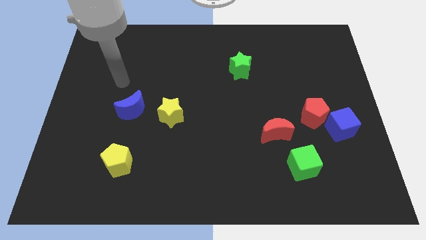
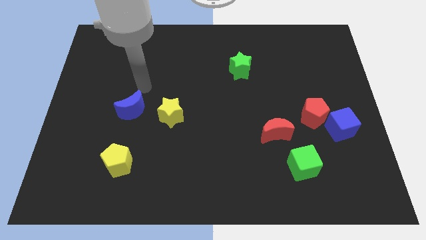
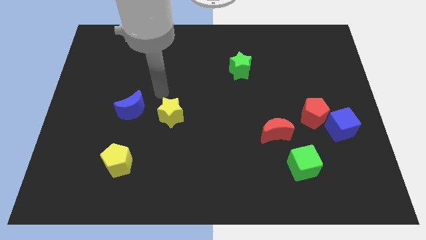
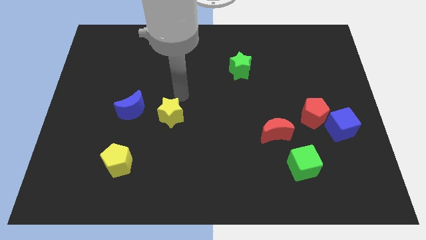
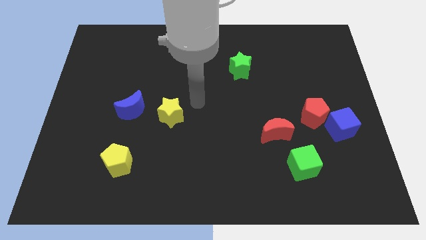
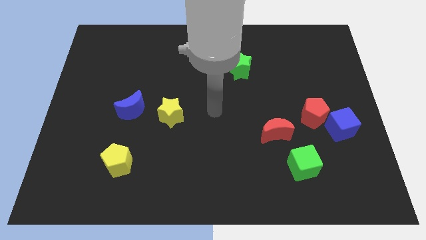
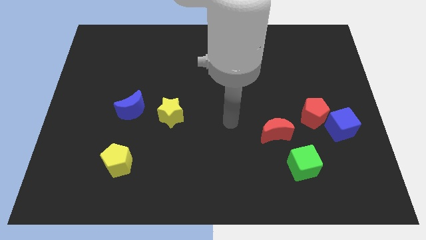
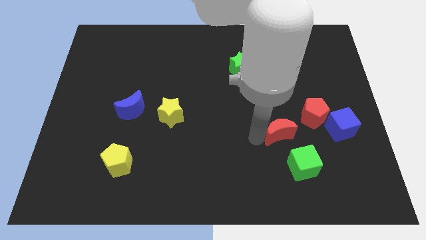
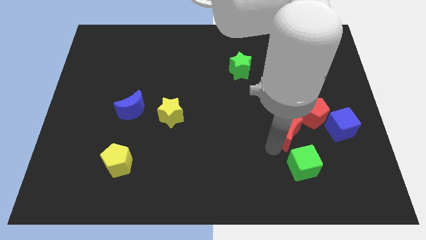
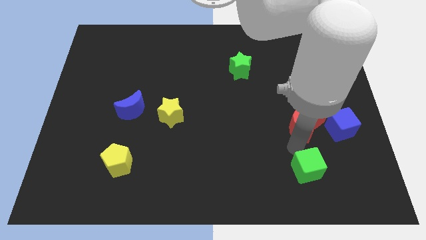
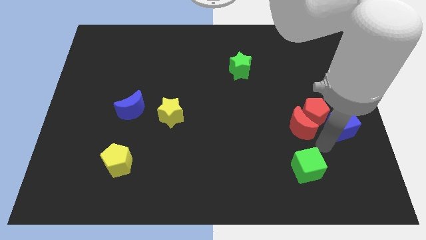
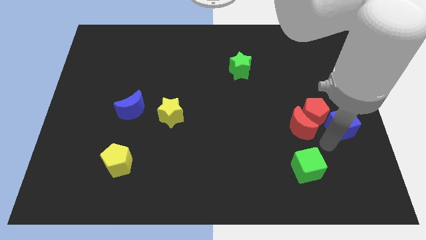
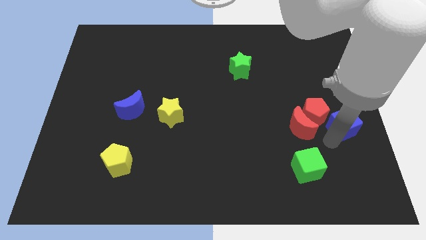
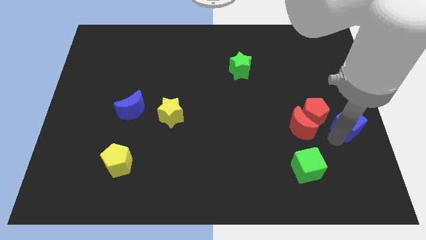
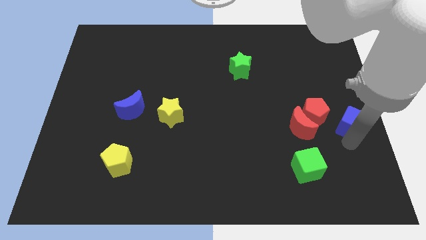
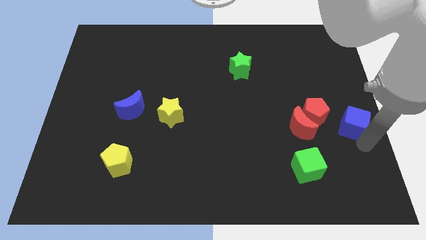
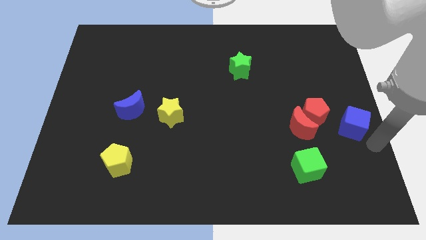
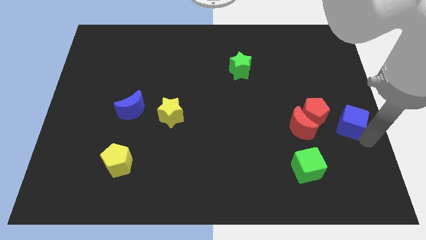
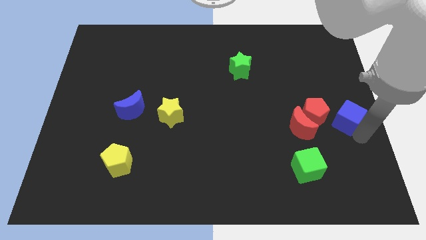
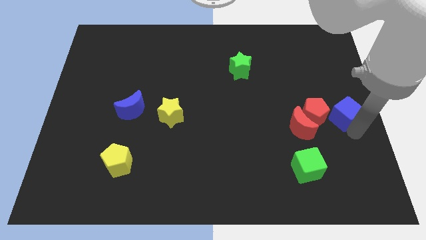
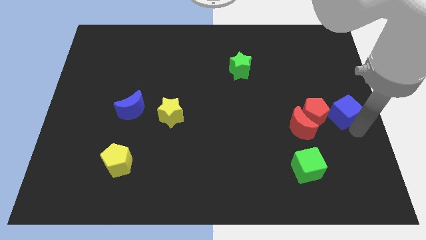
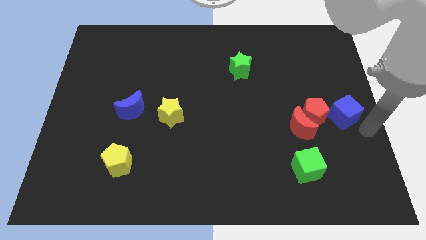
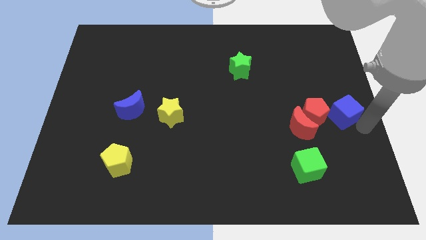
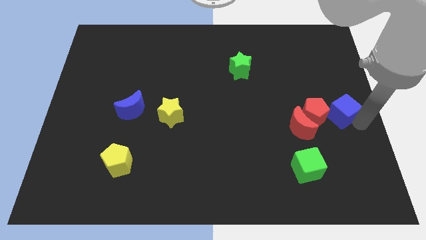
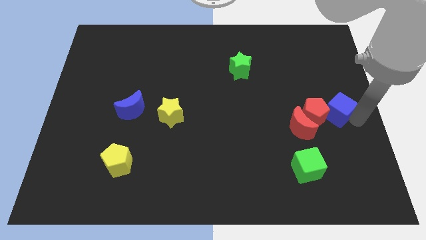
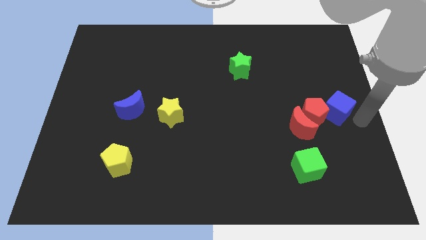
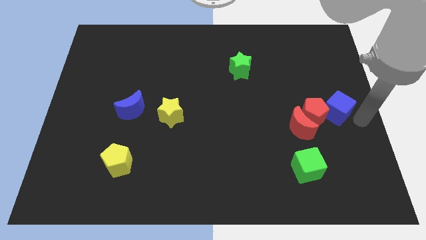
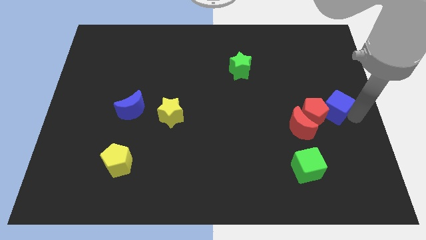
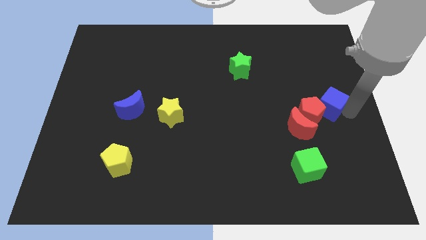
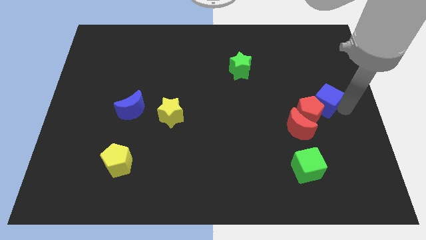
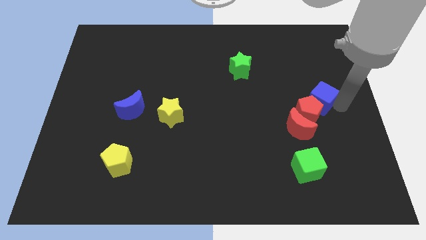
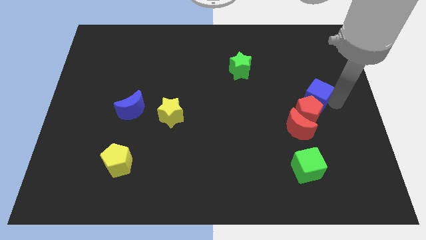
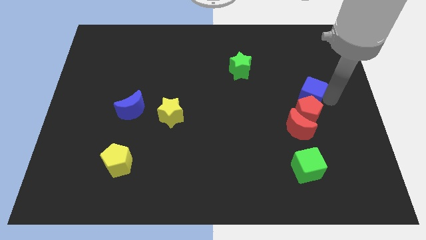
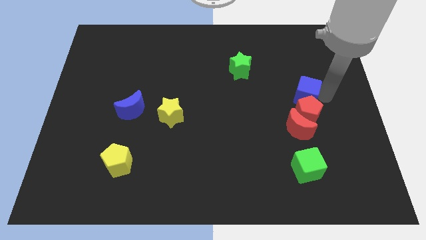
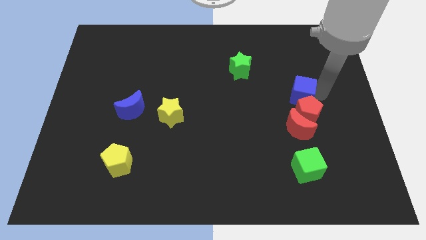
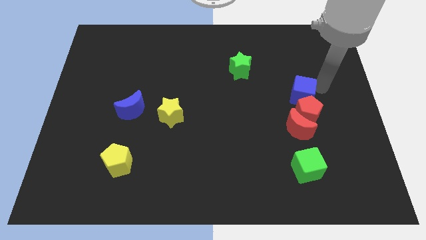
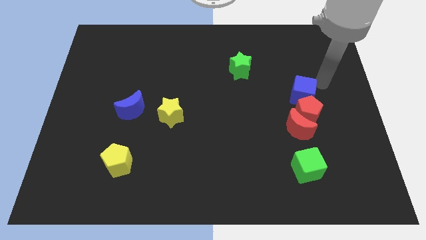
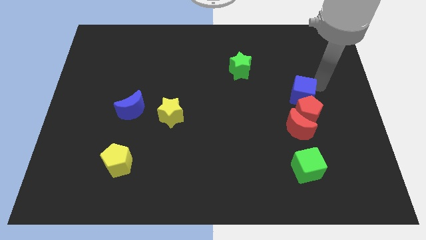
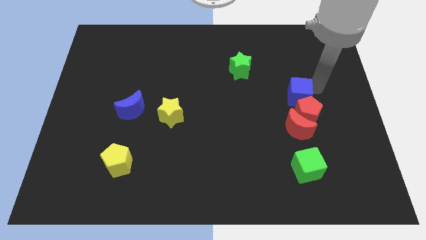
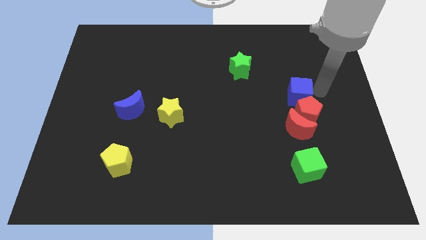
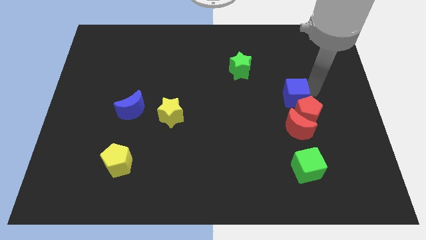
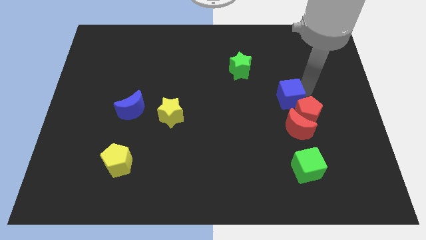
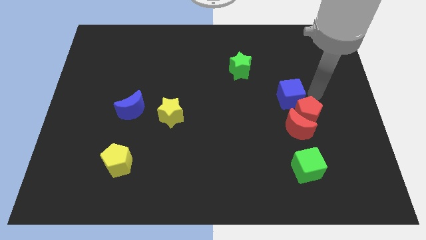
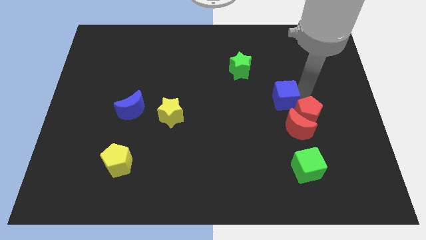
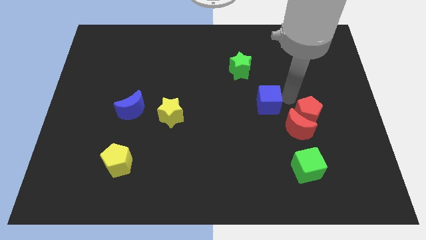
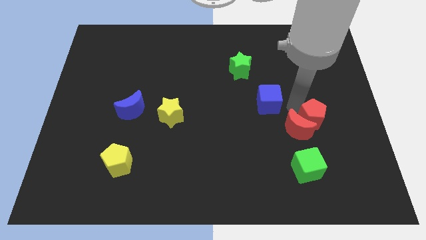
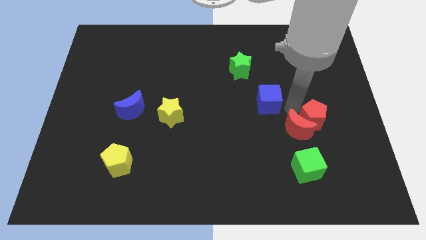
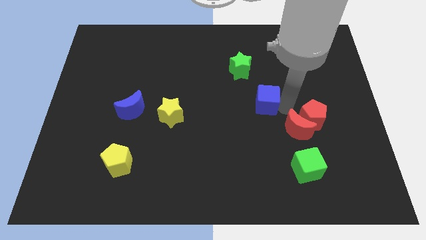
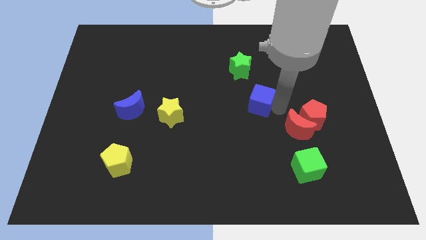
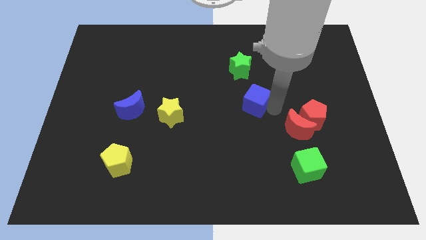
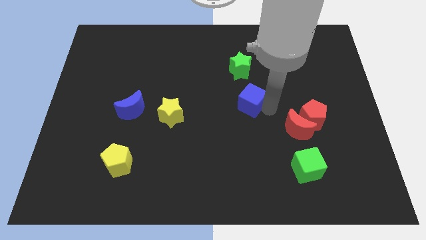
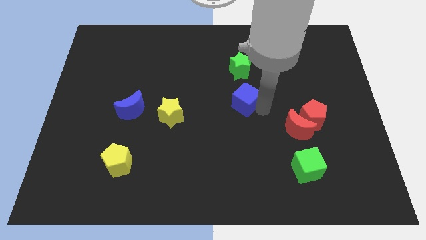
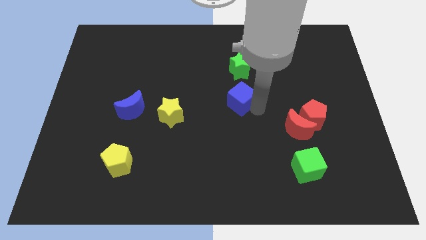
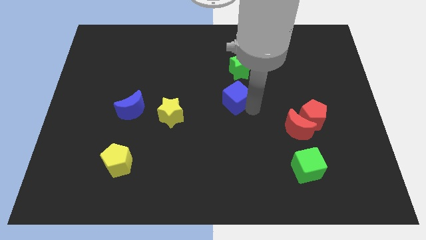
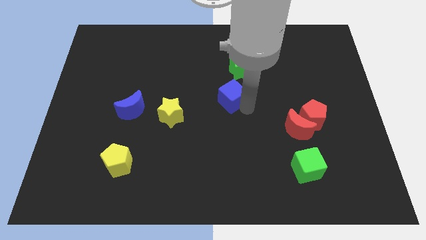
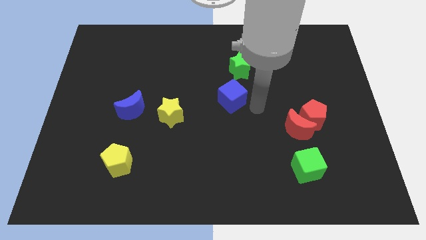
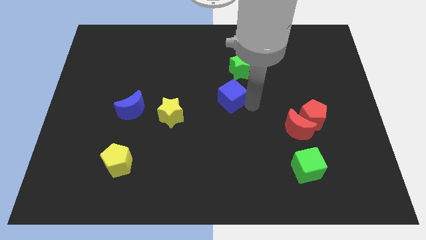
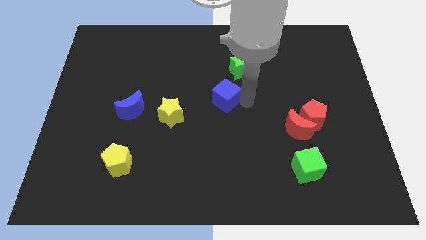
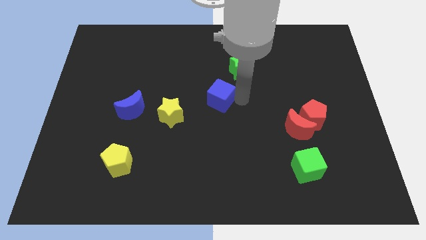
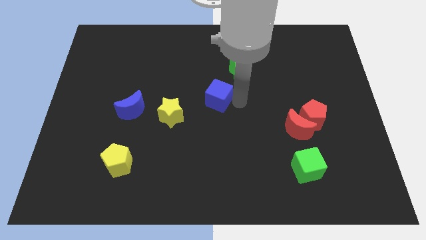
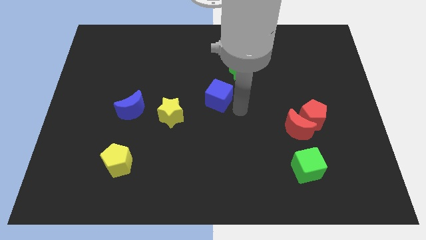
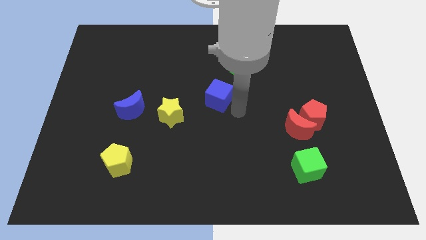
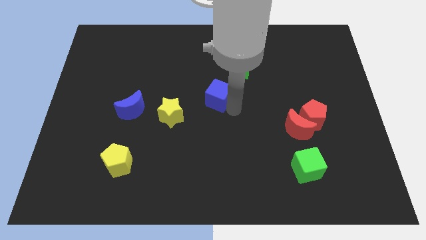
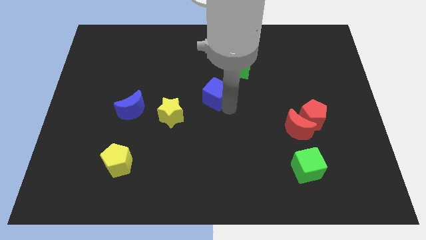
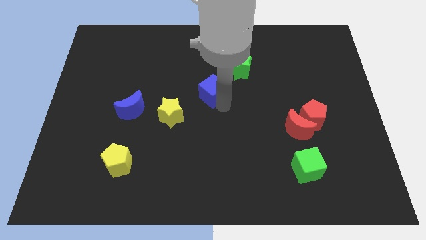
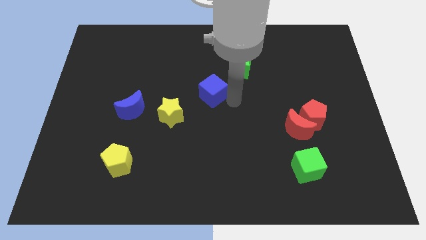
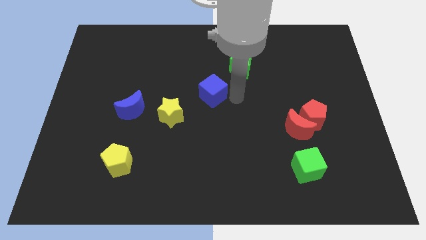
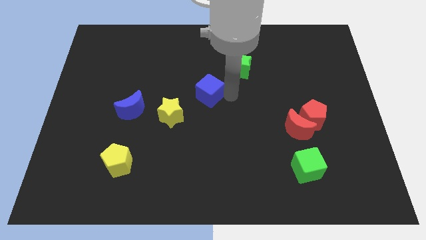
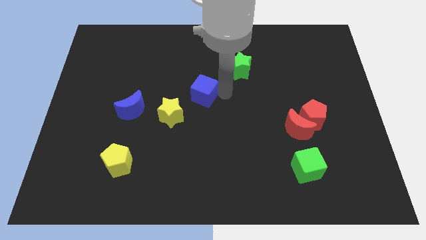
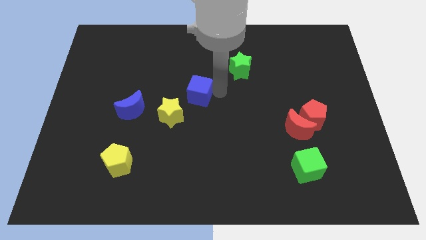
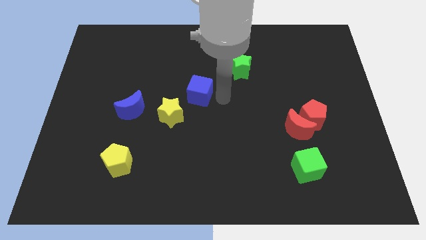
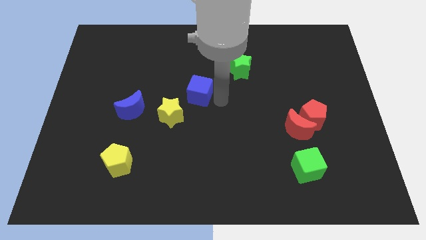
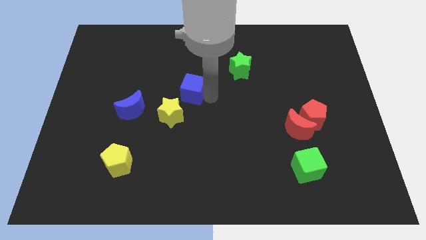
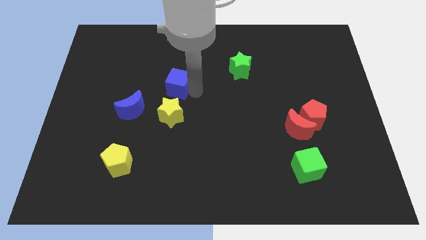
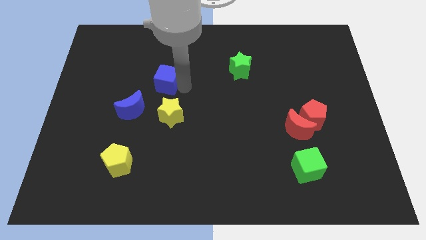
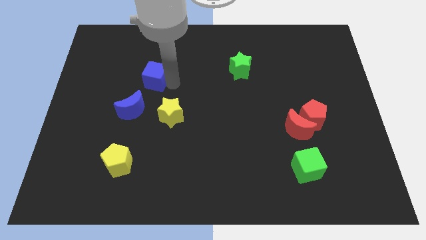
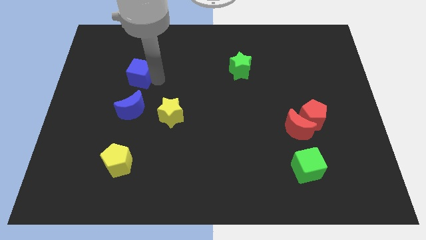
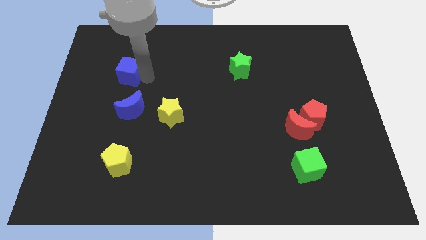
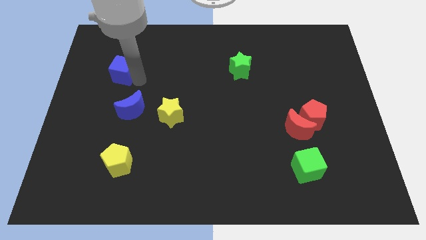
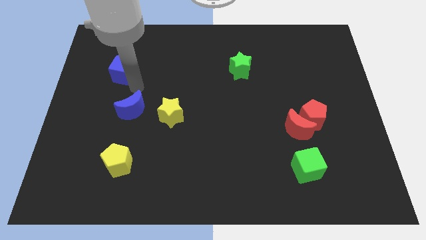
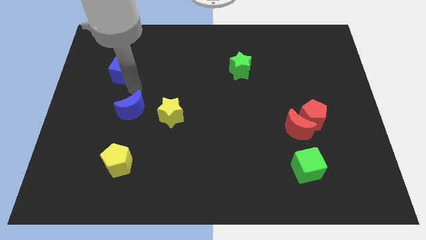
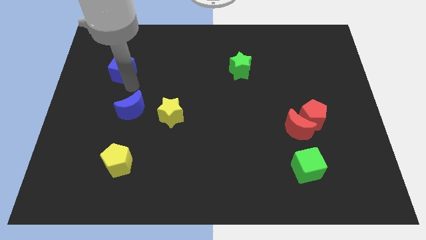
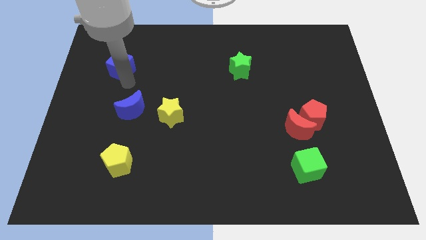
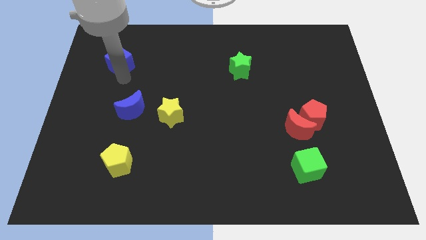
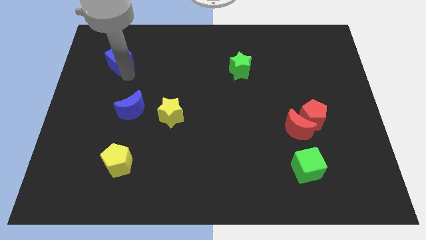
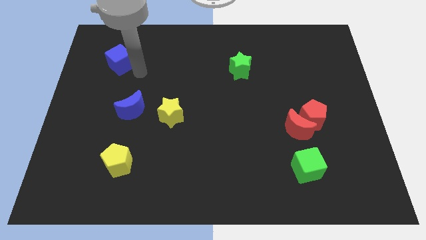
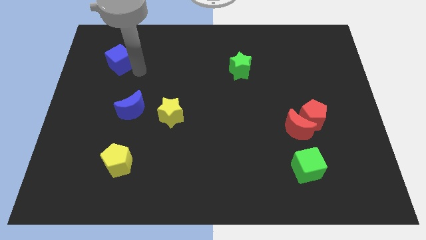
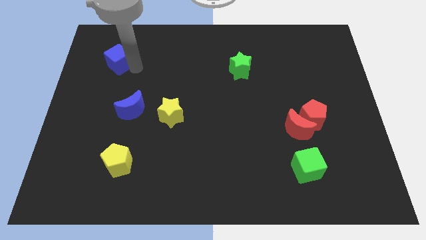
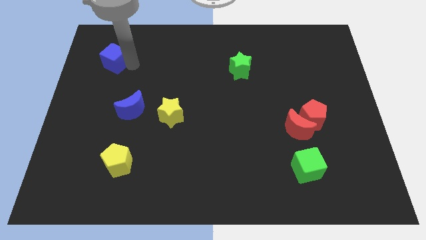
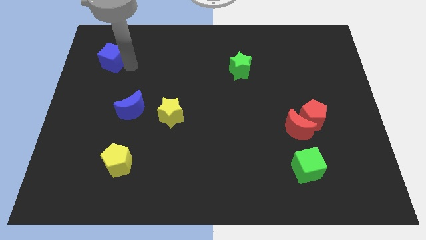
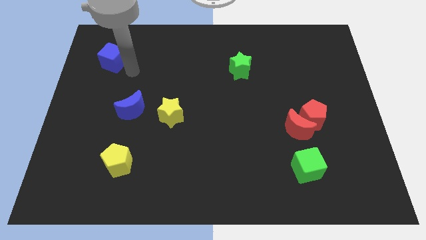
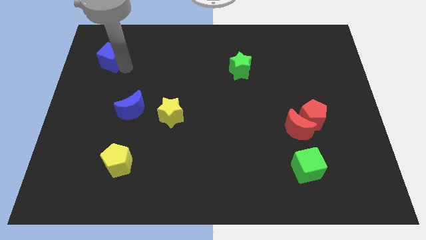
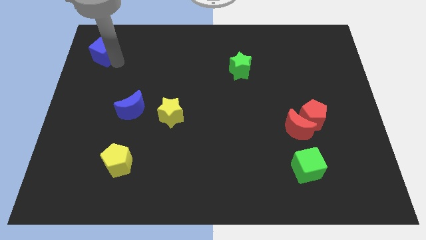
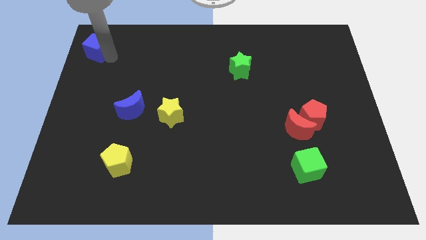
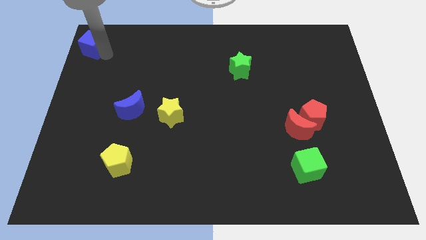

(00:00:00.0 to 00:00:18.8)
slide the blue cube to the top left
